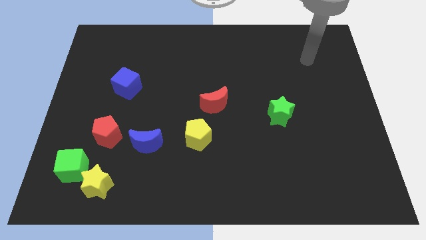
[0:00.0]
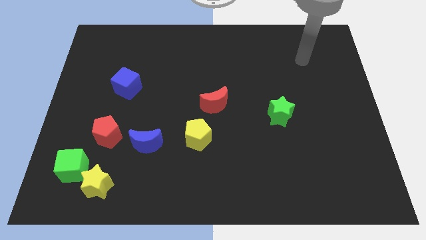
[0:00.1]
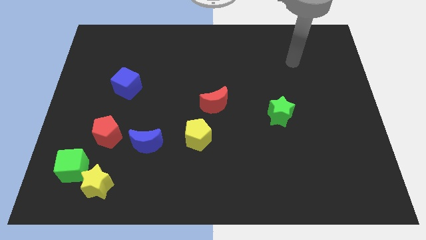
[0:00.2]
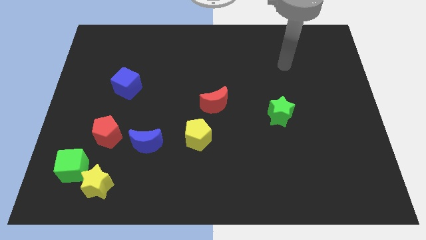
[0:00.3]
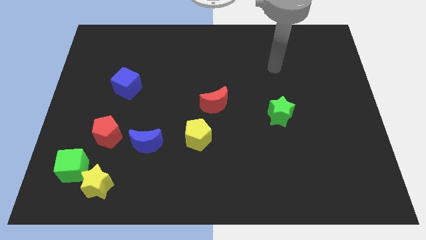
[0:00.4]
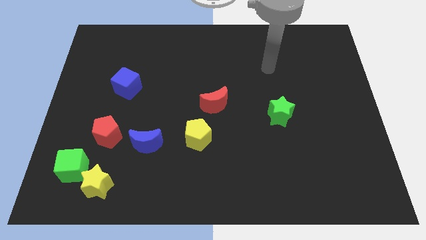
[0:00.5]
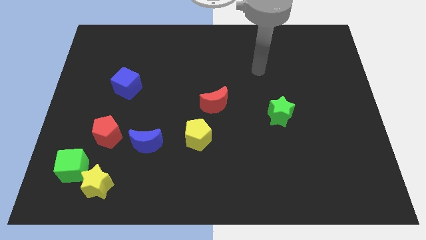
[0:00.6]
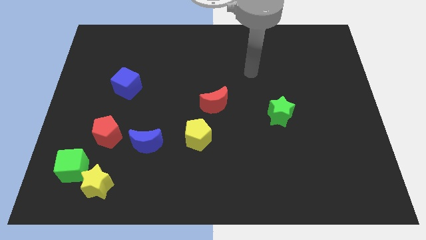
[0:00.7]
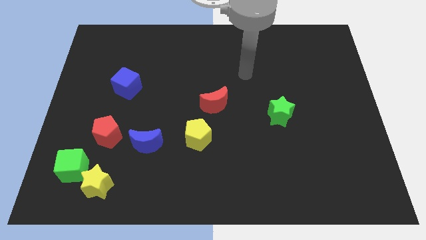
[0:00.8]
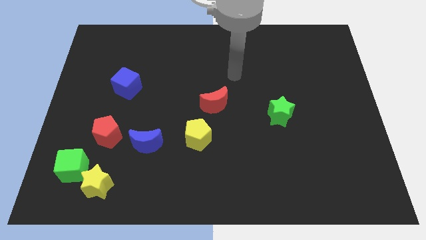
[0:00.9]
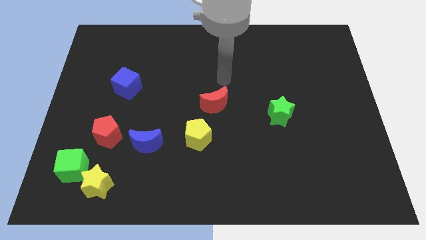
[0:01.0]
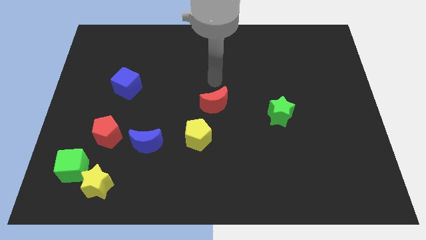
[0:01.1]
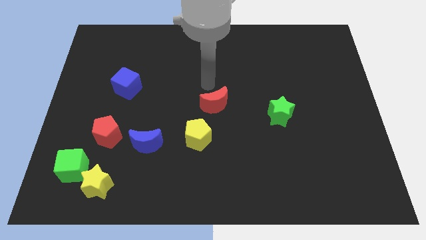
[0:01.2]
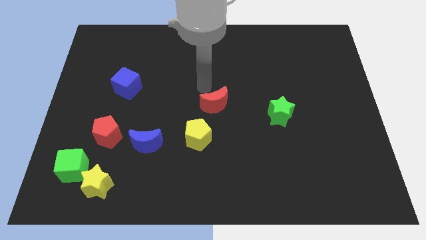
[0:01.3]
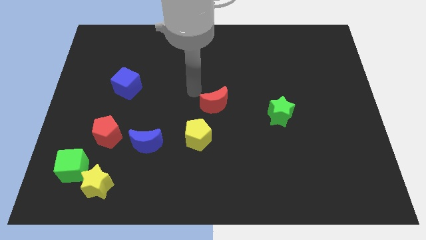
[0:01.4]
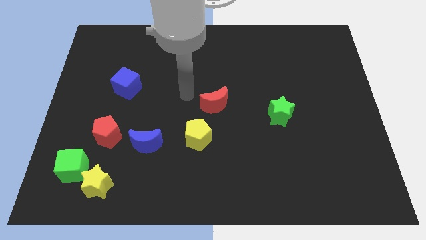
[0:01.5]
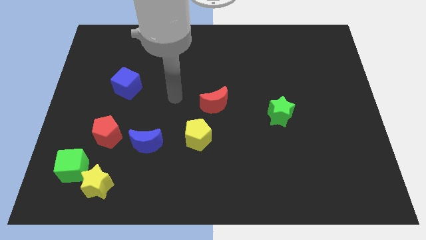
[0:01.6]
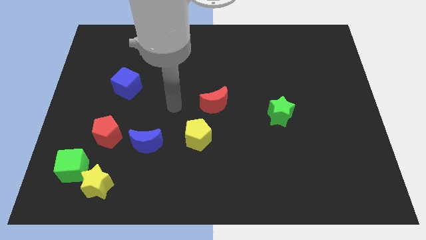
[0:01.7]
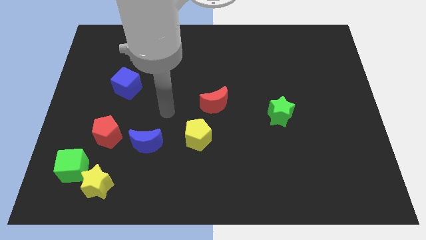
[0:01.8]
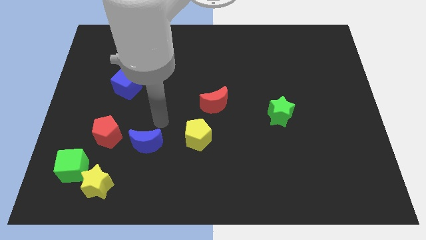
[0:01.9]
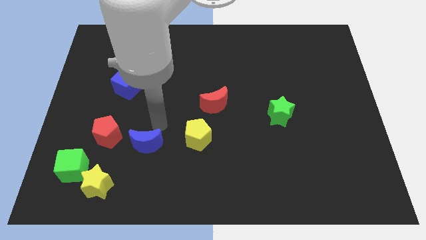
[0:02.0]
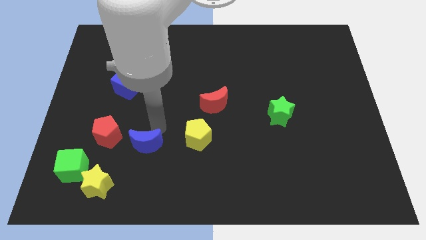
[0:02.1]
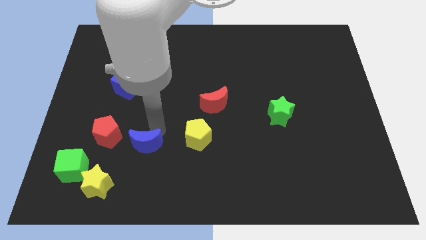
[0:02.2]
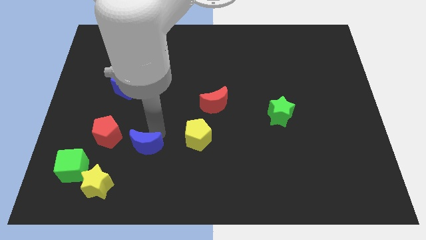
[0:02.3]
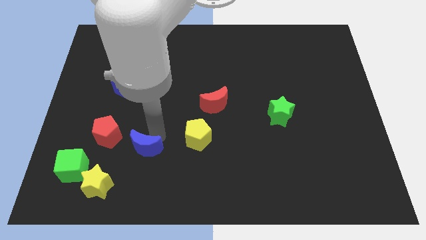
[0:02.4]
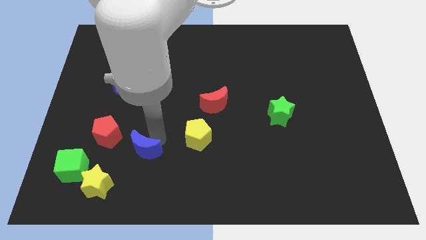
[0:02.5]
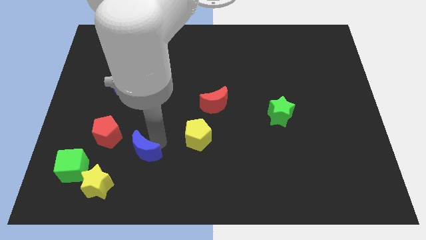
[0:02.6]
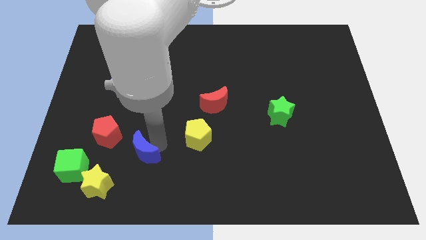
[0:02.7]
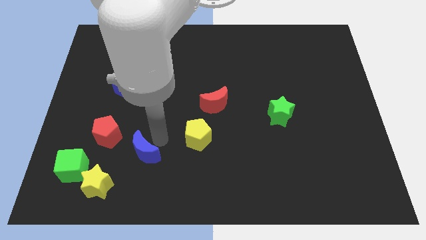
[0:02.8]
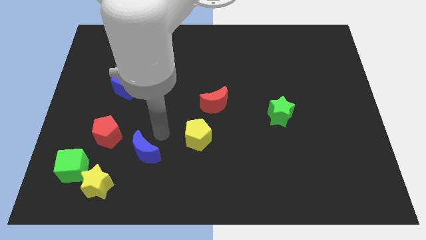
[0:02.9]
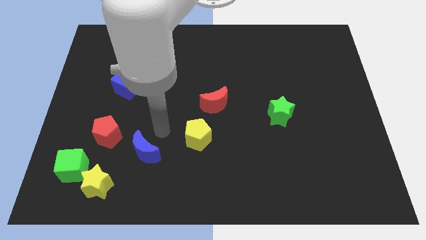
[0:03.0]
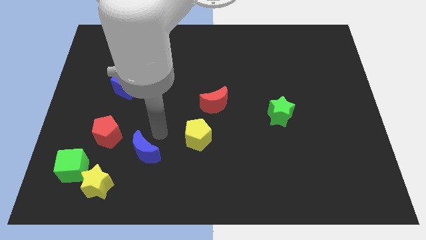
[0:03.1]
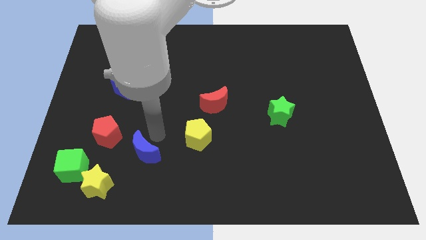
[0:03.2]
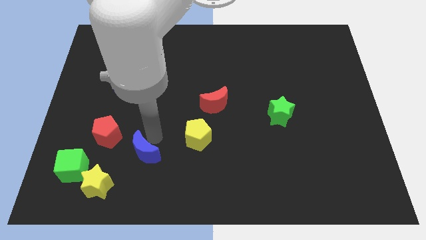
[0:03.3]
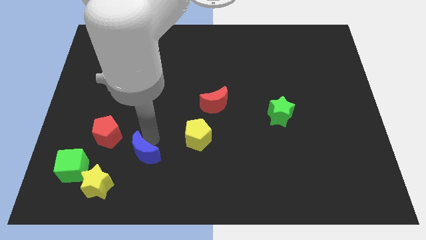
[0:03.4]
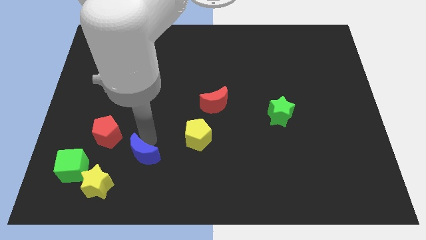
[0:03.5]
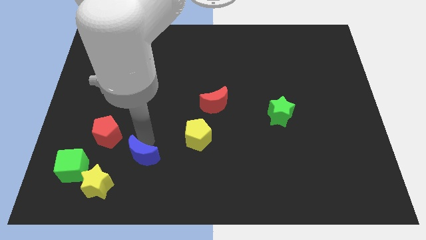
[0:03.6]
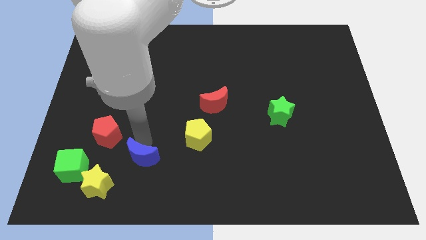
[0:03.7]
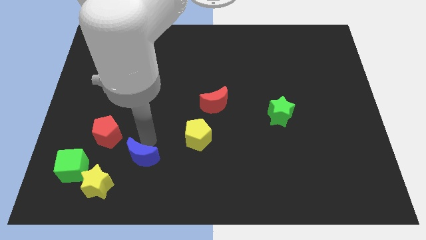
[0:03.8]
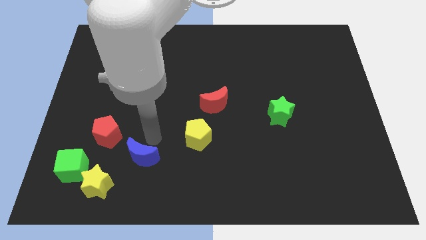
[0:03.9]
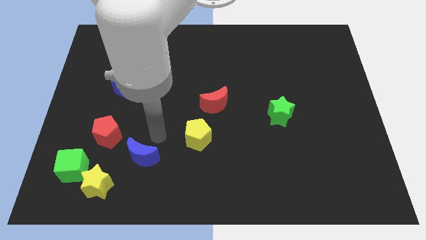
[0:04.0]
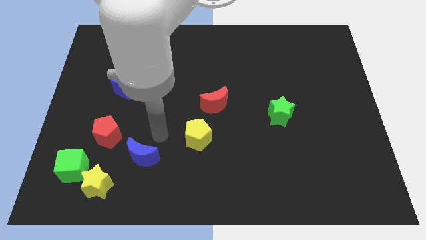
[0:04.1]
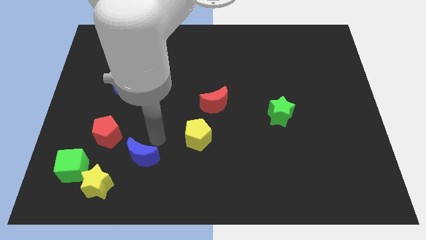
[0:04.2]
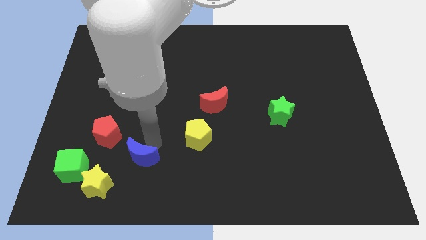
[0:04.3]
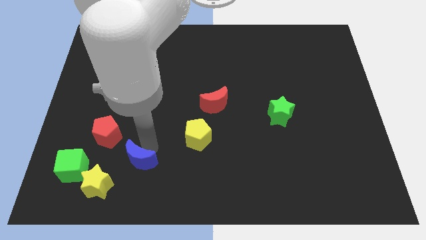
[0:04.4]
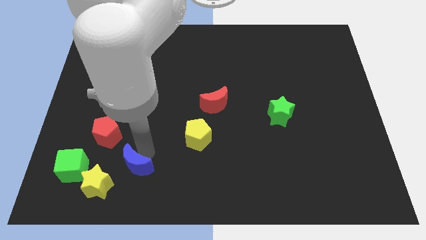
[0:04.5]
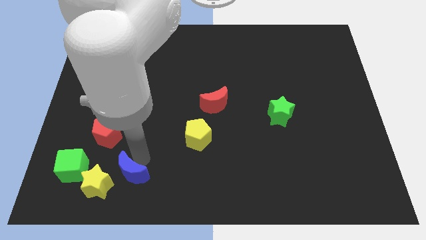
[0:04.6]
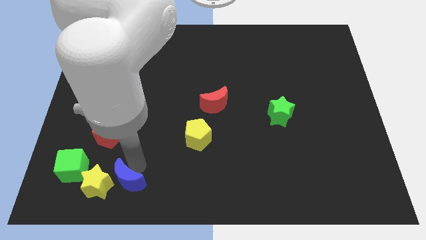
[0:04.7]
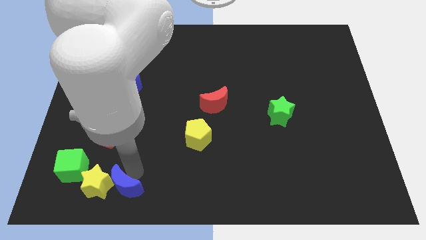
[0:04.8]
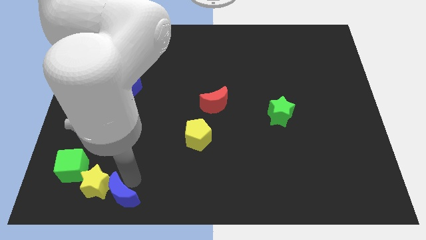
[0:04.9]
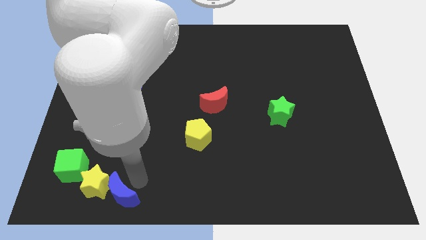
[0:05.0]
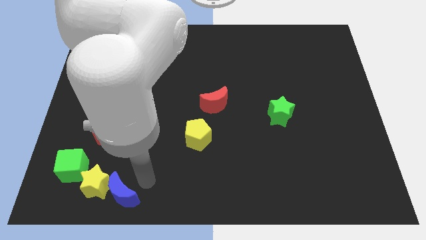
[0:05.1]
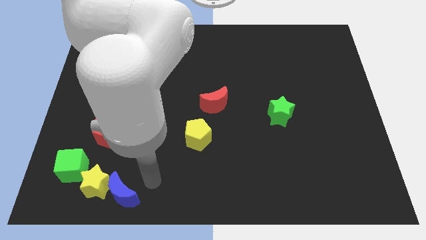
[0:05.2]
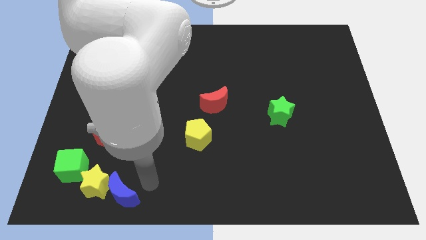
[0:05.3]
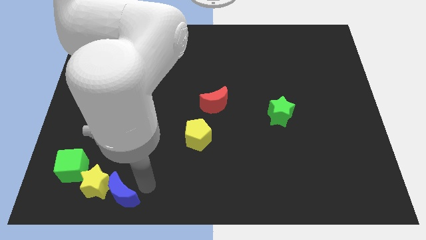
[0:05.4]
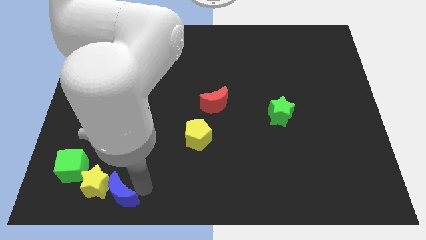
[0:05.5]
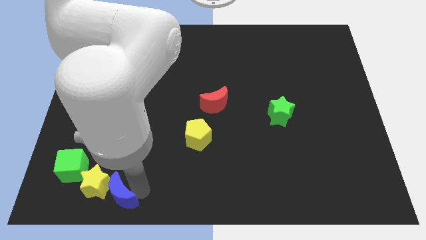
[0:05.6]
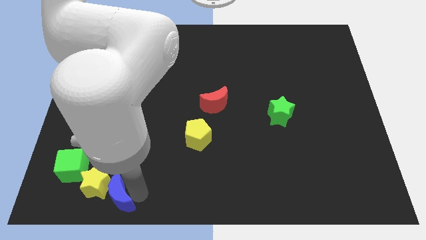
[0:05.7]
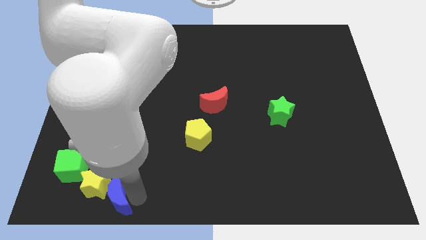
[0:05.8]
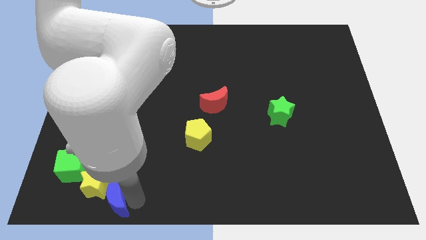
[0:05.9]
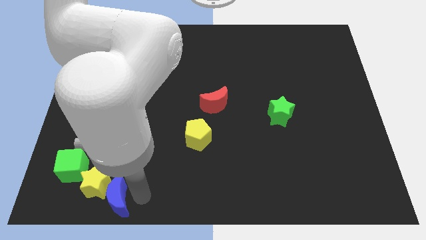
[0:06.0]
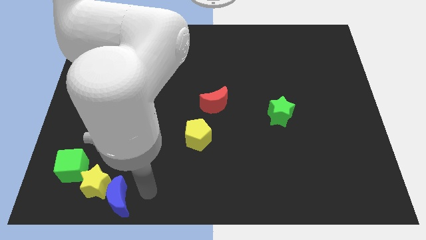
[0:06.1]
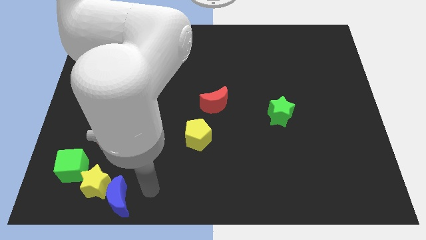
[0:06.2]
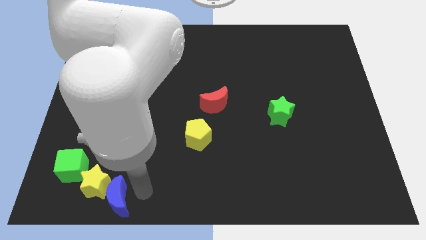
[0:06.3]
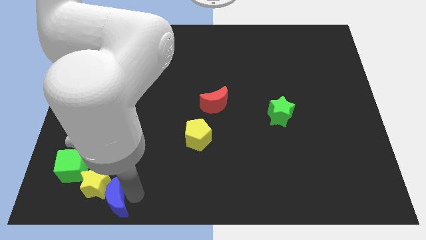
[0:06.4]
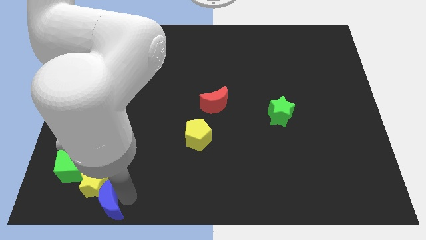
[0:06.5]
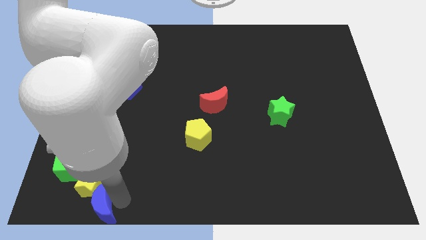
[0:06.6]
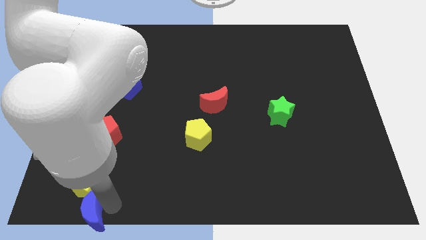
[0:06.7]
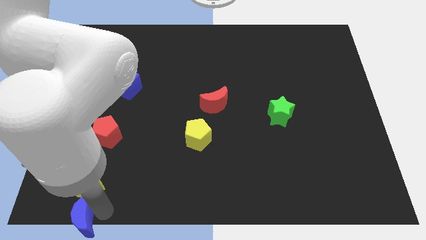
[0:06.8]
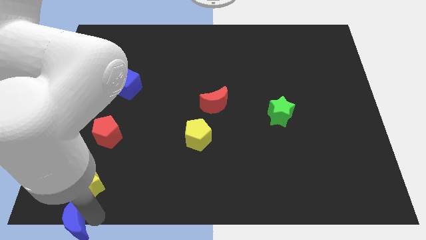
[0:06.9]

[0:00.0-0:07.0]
push the blue moon to the bottom left of the board
